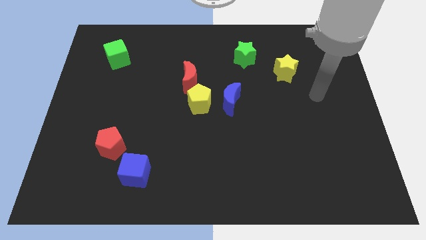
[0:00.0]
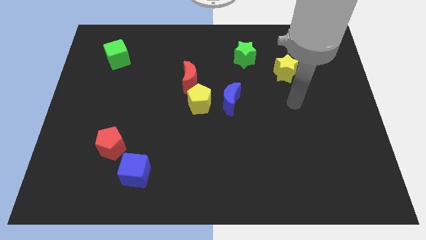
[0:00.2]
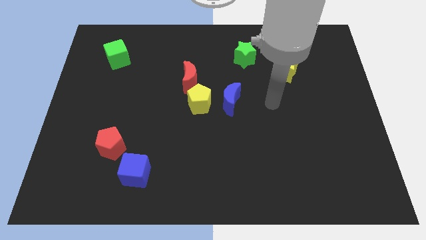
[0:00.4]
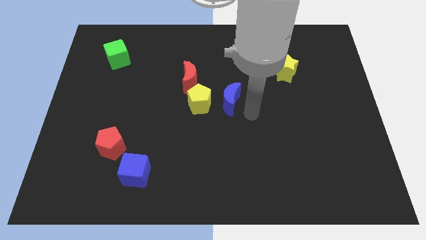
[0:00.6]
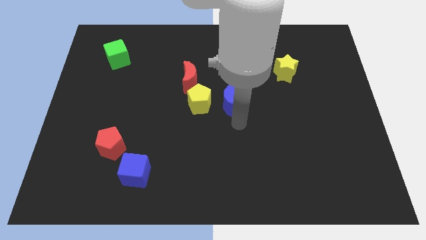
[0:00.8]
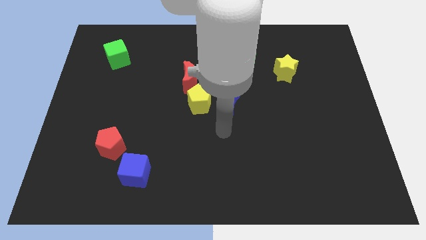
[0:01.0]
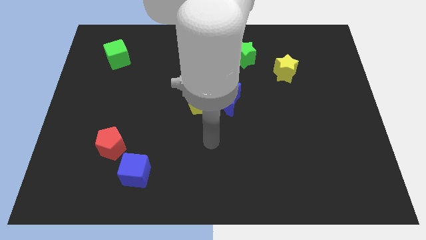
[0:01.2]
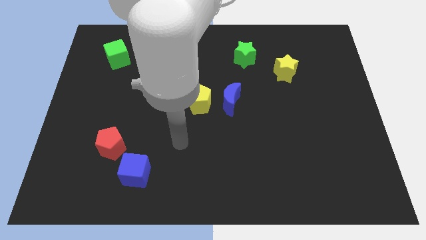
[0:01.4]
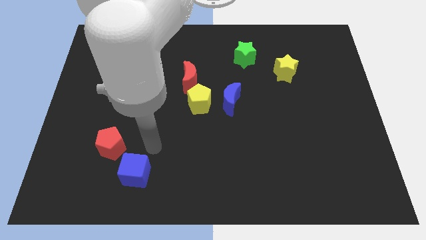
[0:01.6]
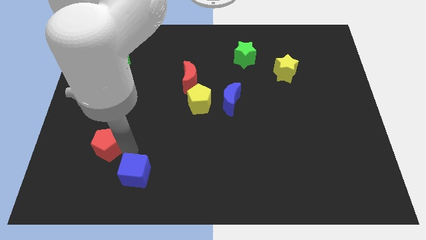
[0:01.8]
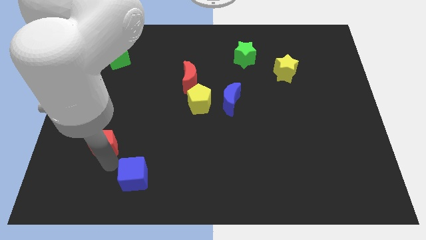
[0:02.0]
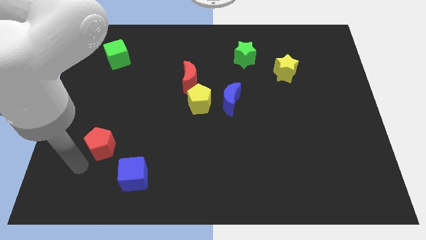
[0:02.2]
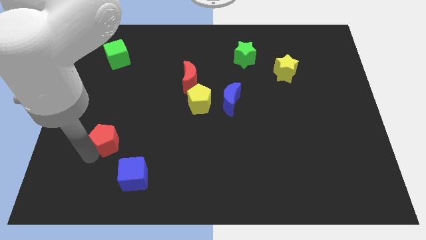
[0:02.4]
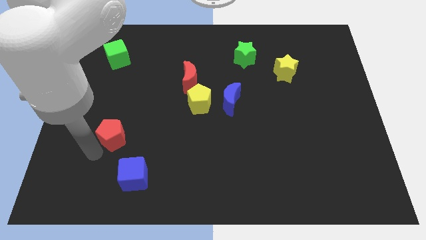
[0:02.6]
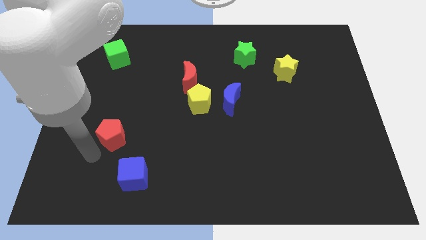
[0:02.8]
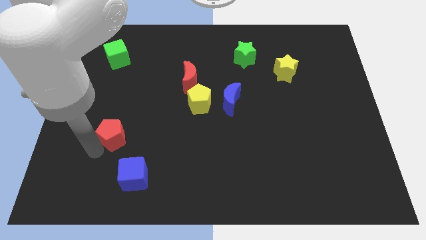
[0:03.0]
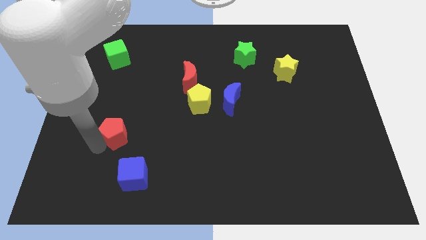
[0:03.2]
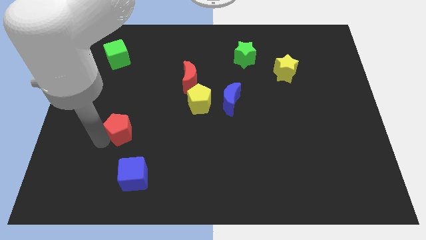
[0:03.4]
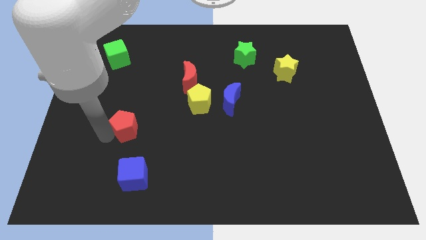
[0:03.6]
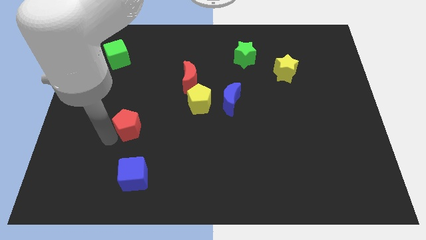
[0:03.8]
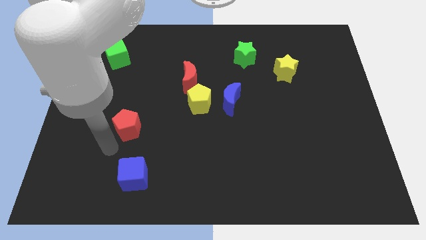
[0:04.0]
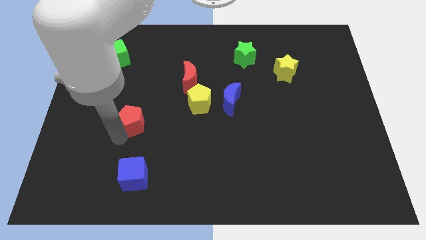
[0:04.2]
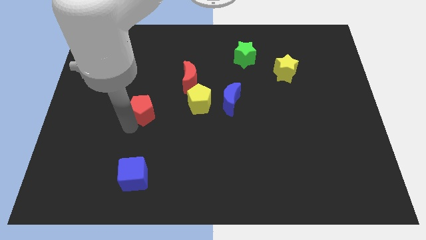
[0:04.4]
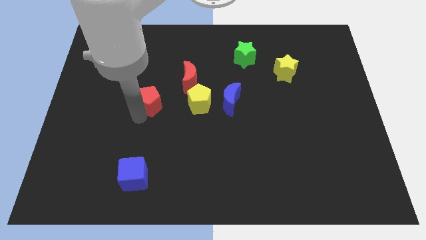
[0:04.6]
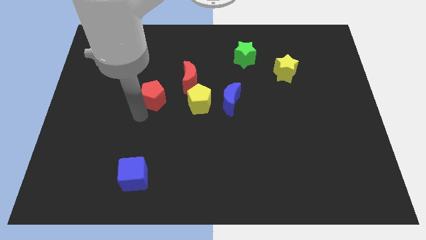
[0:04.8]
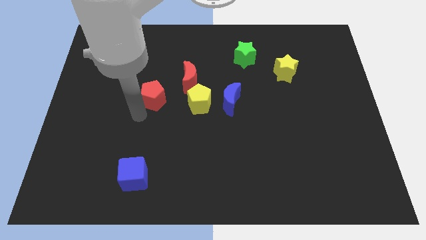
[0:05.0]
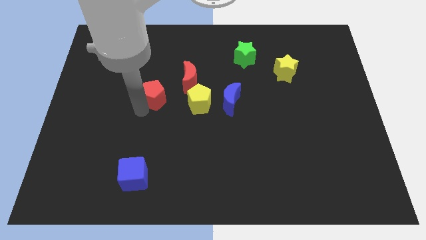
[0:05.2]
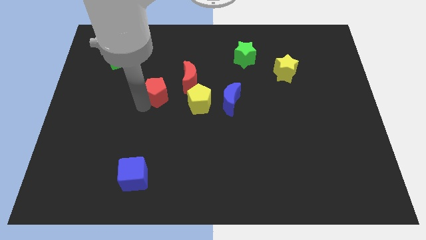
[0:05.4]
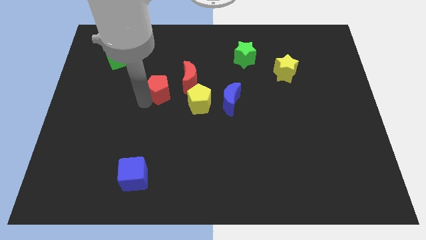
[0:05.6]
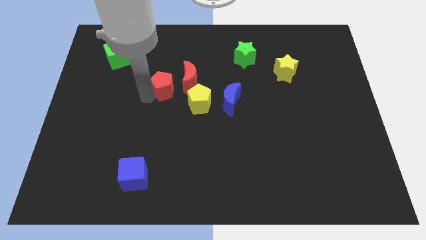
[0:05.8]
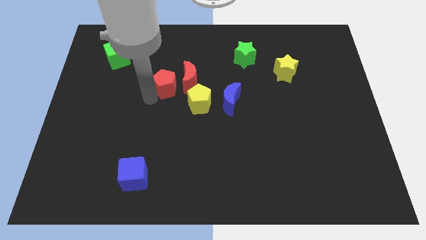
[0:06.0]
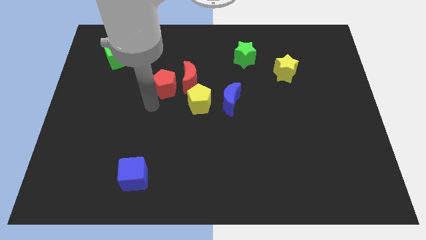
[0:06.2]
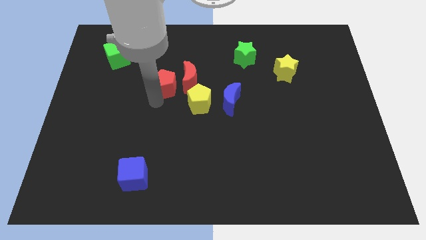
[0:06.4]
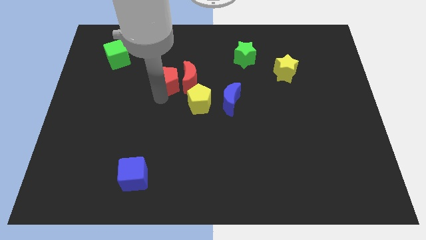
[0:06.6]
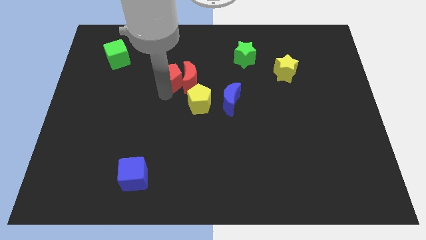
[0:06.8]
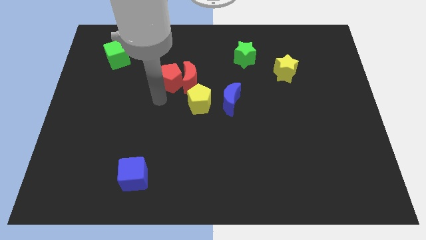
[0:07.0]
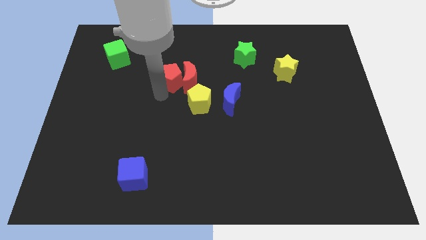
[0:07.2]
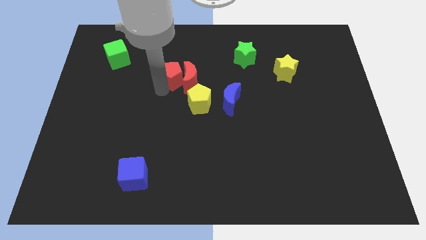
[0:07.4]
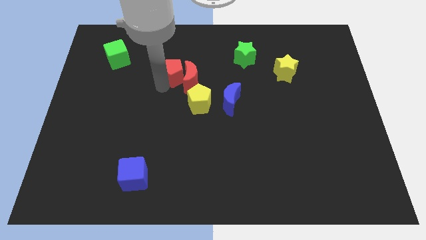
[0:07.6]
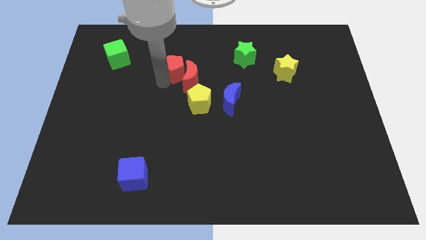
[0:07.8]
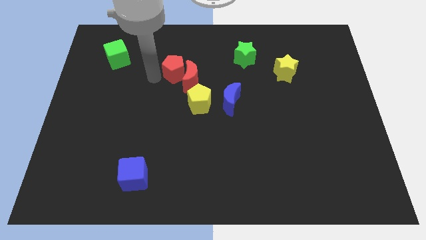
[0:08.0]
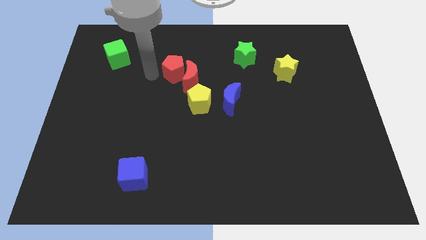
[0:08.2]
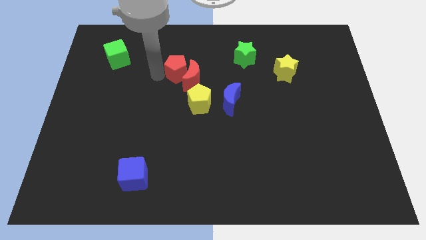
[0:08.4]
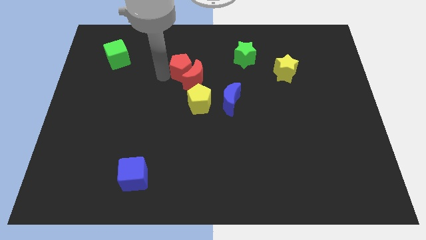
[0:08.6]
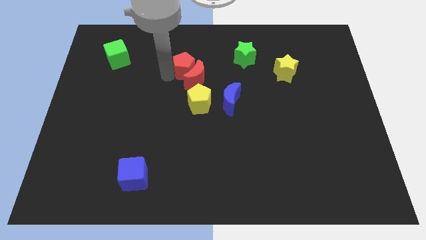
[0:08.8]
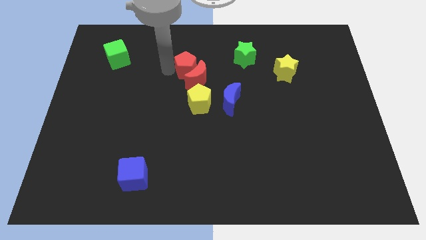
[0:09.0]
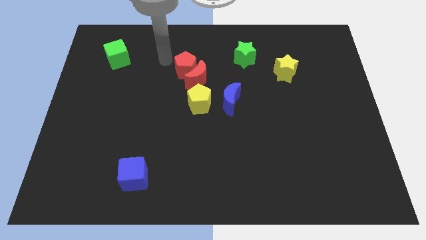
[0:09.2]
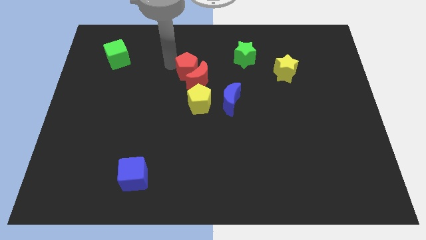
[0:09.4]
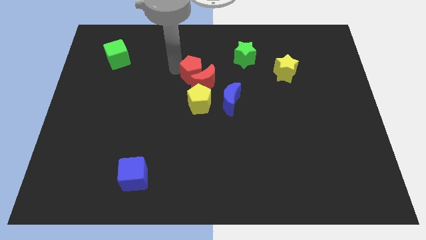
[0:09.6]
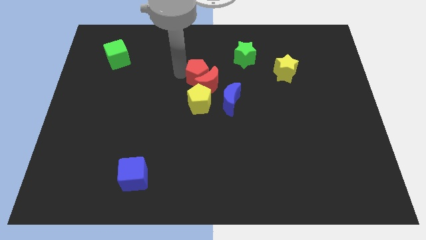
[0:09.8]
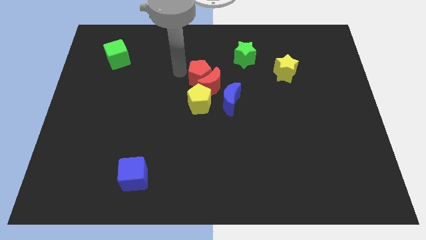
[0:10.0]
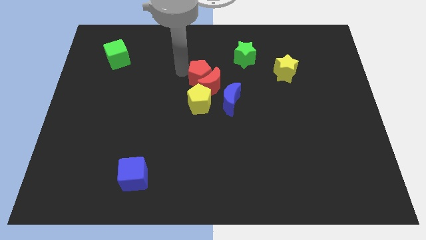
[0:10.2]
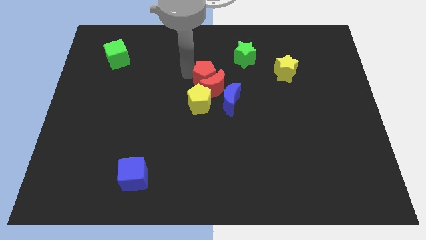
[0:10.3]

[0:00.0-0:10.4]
slide the red pentagon to the top right side of the yellow pentagon
